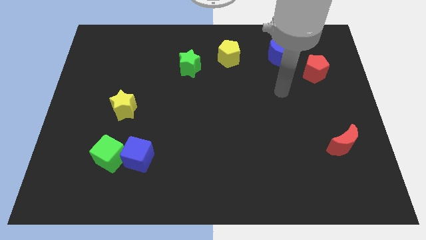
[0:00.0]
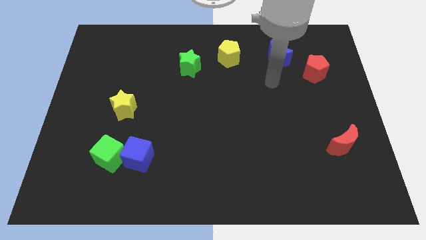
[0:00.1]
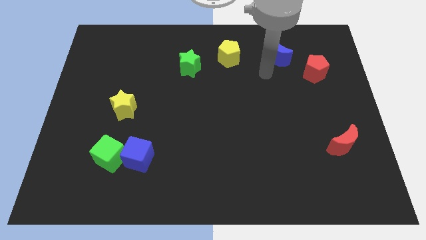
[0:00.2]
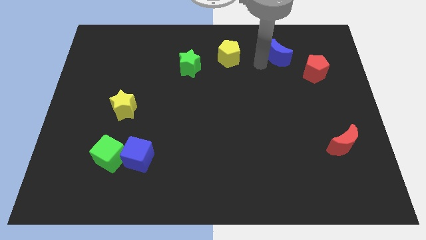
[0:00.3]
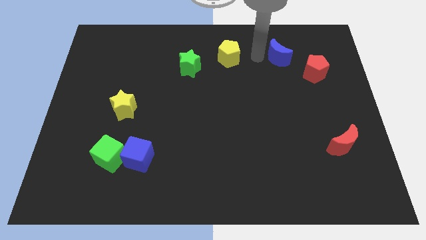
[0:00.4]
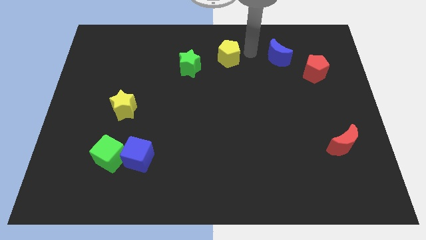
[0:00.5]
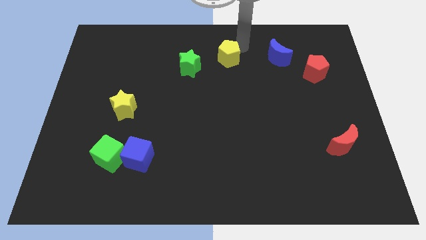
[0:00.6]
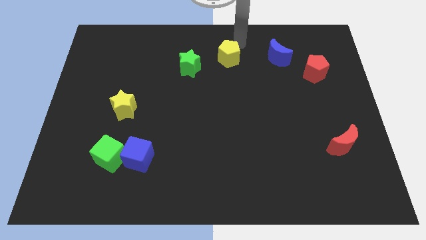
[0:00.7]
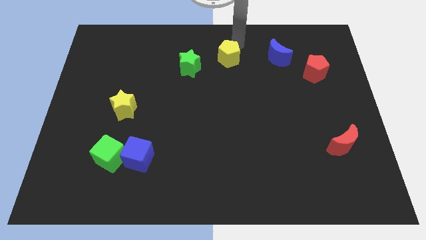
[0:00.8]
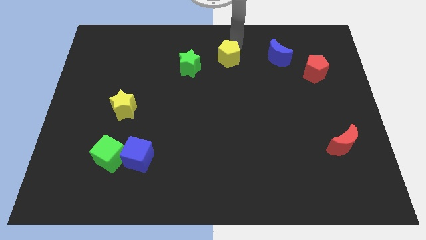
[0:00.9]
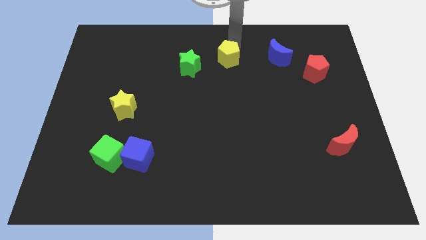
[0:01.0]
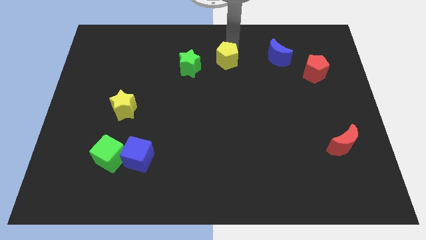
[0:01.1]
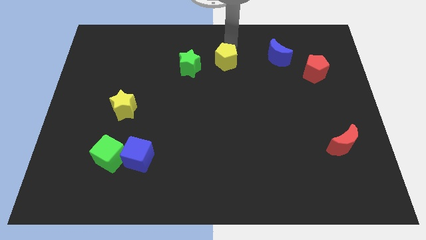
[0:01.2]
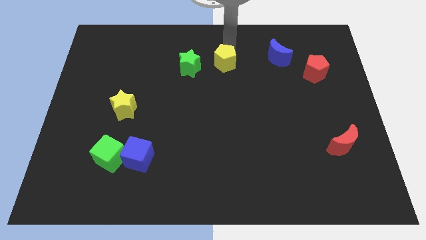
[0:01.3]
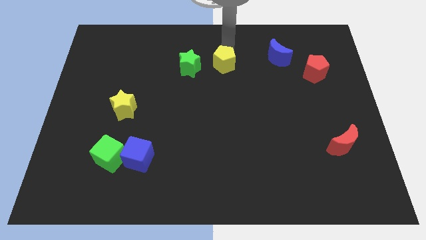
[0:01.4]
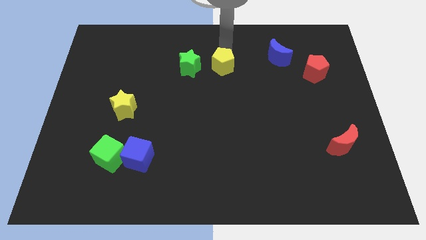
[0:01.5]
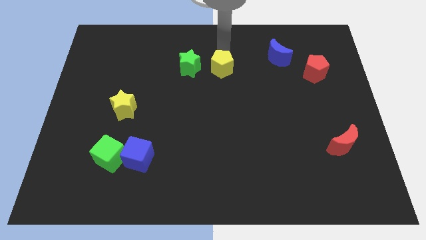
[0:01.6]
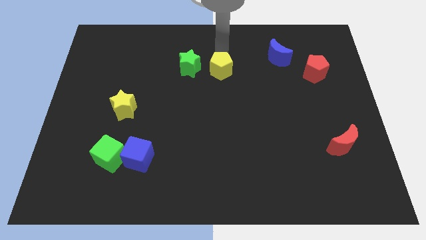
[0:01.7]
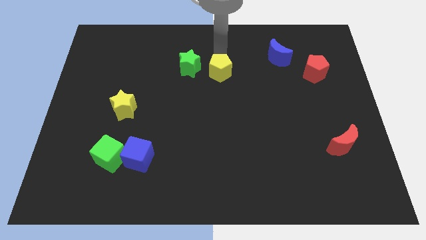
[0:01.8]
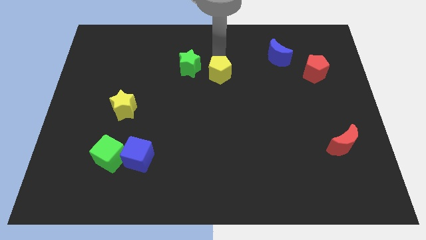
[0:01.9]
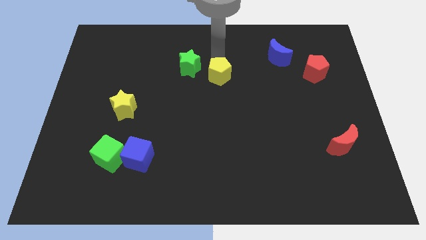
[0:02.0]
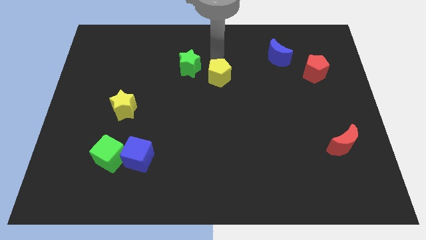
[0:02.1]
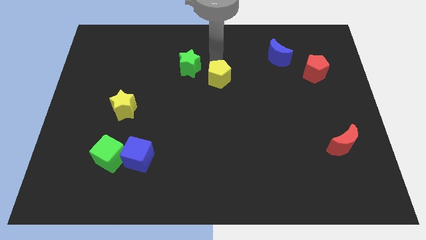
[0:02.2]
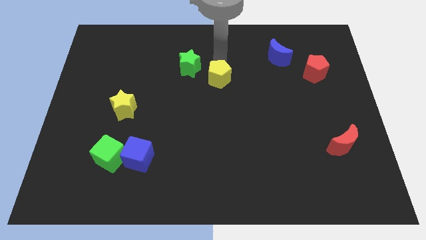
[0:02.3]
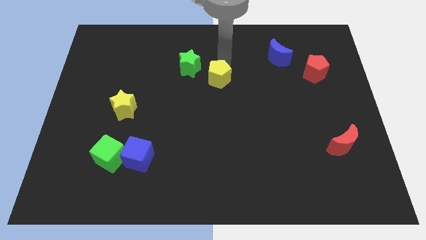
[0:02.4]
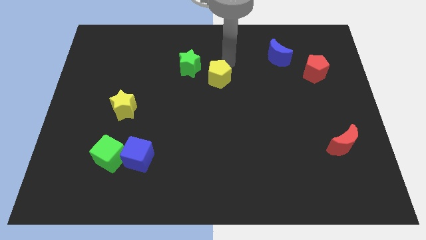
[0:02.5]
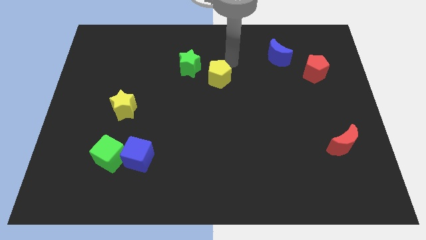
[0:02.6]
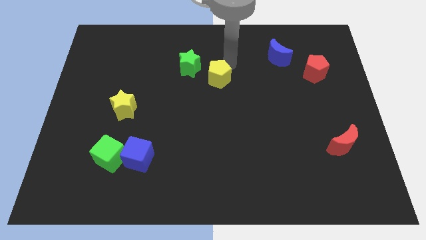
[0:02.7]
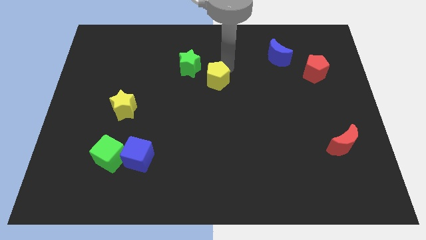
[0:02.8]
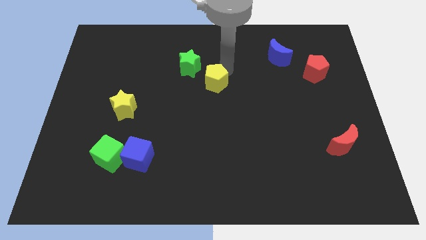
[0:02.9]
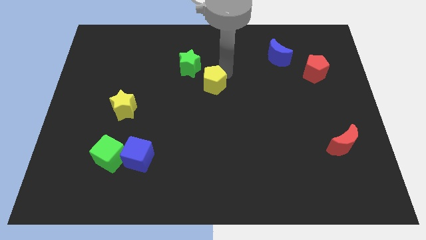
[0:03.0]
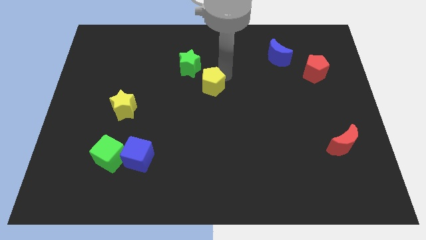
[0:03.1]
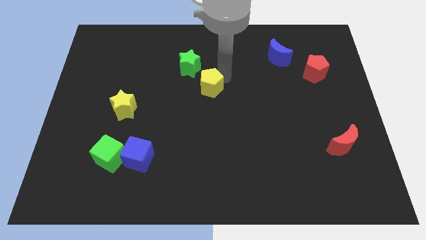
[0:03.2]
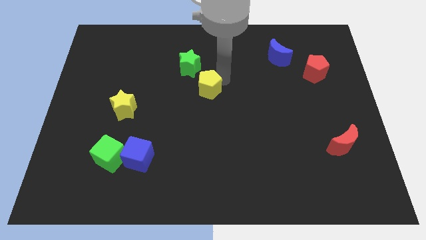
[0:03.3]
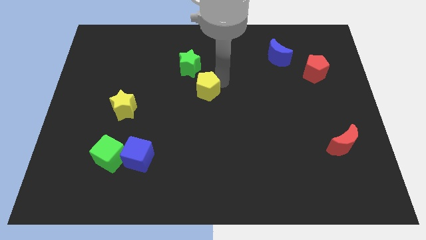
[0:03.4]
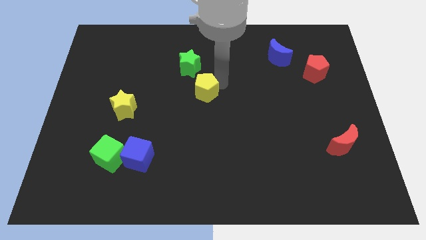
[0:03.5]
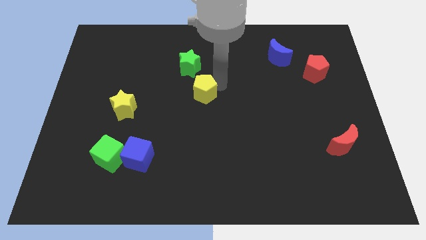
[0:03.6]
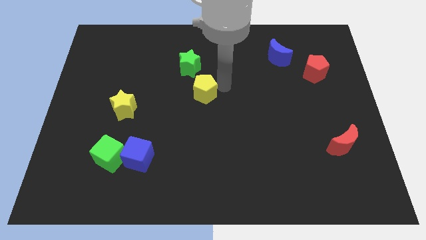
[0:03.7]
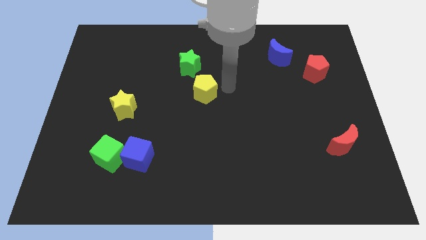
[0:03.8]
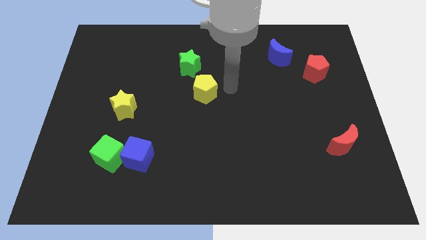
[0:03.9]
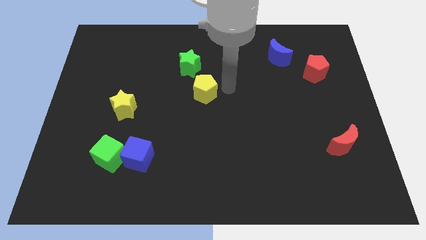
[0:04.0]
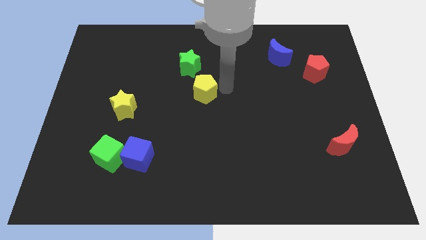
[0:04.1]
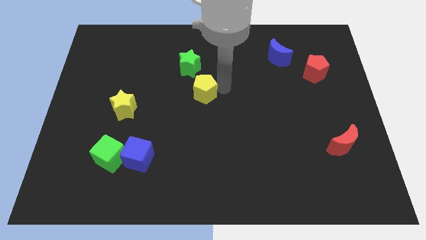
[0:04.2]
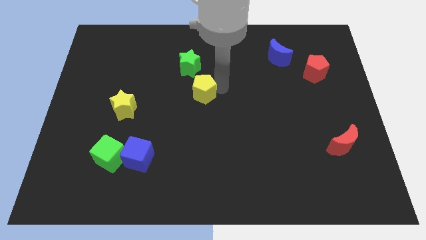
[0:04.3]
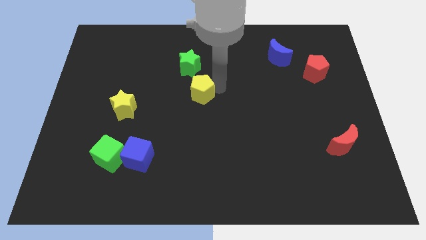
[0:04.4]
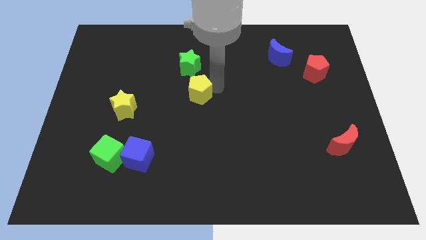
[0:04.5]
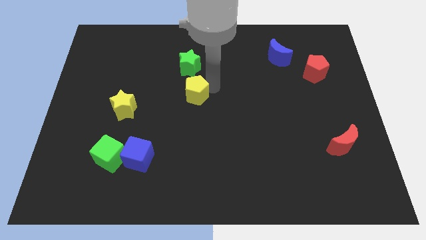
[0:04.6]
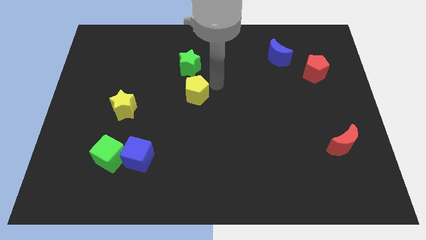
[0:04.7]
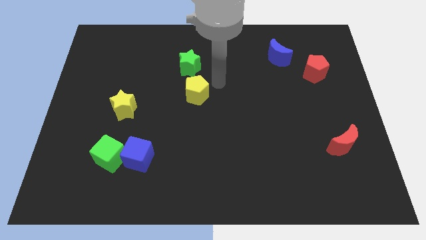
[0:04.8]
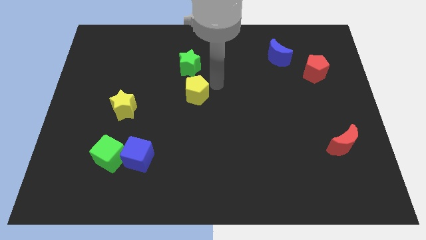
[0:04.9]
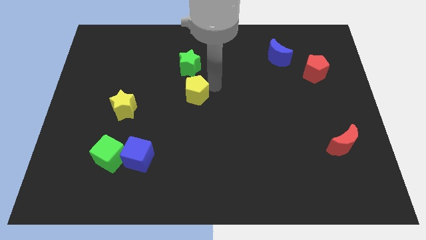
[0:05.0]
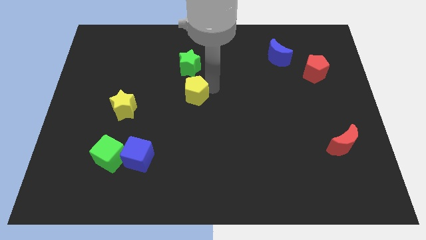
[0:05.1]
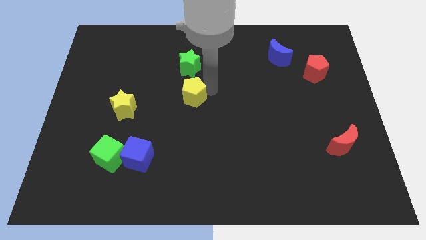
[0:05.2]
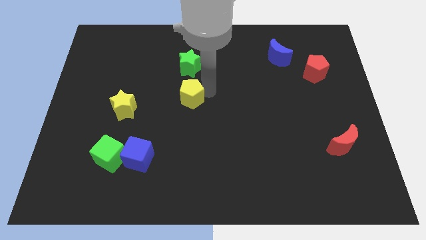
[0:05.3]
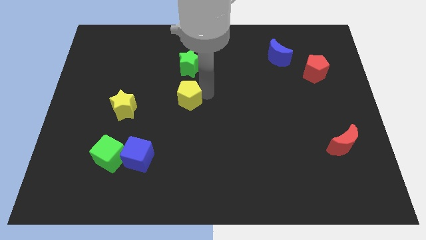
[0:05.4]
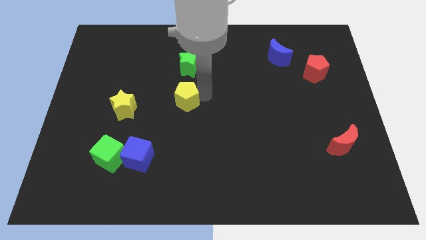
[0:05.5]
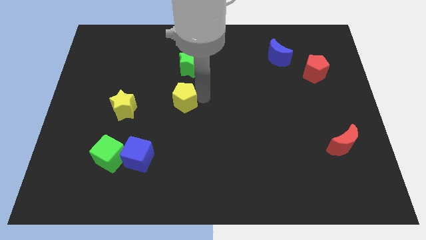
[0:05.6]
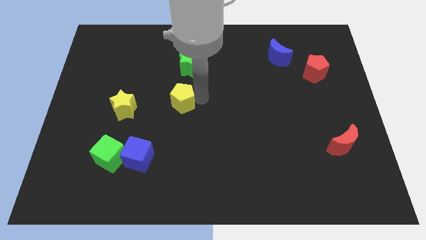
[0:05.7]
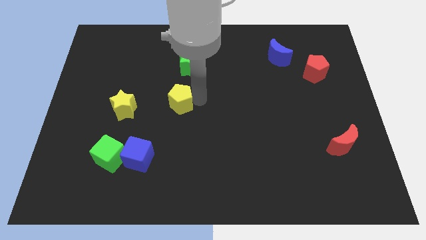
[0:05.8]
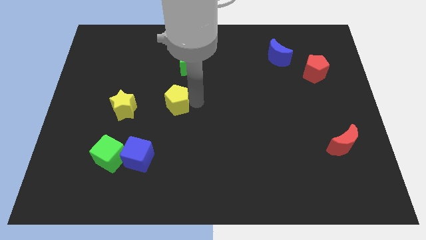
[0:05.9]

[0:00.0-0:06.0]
push the yellow pentagon diagonally down and left

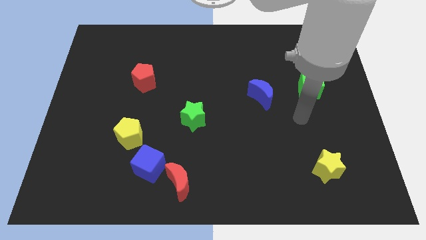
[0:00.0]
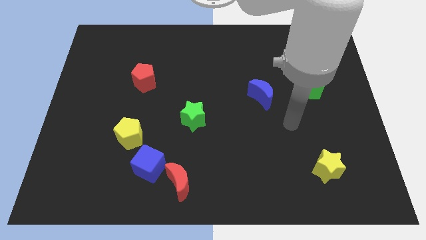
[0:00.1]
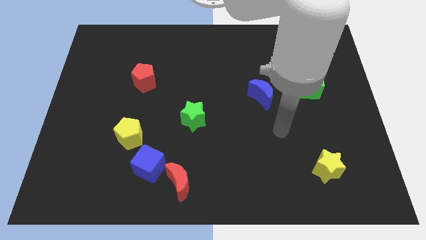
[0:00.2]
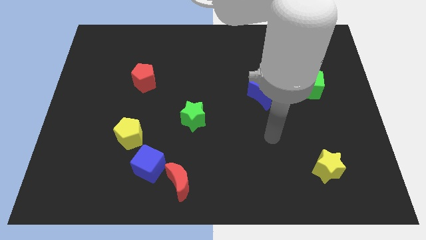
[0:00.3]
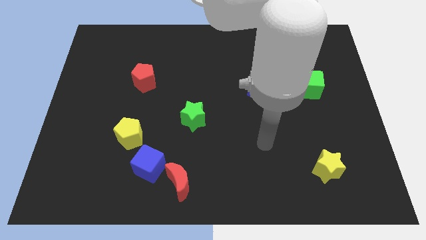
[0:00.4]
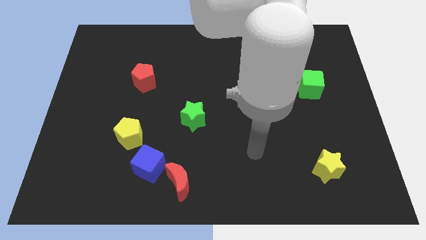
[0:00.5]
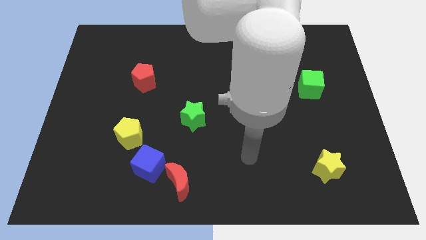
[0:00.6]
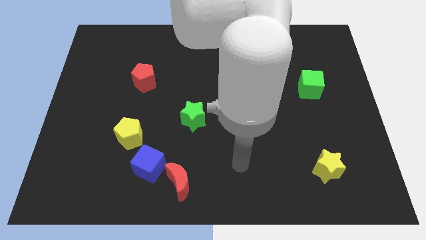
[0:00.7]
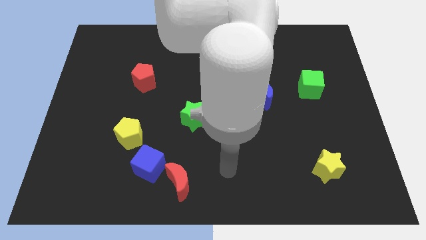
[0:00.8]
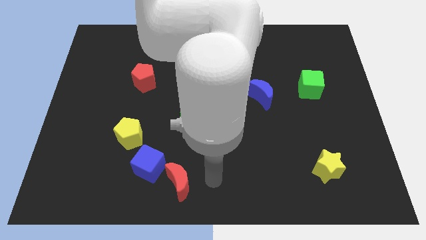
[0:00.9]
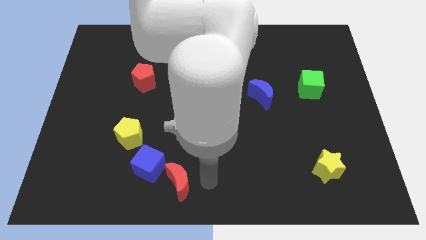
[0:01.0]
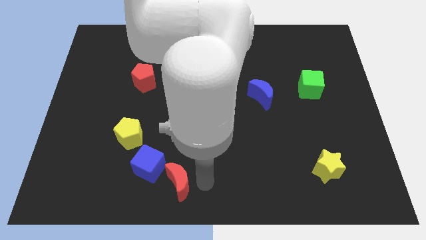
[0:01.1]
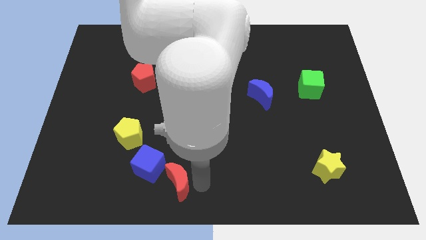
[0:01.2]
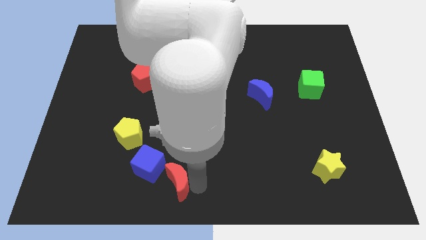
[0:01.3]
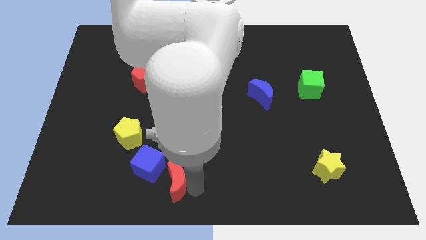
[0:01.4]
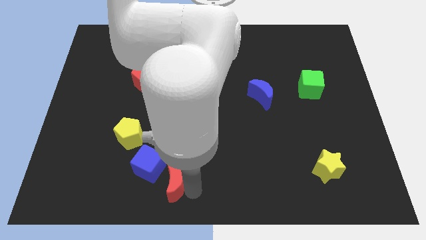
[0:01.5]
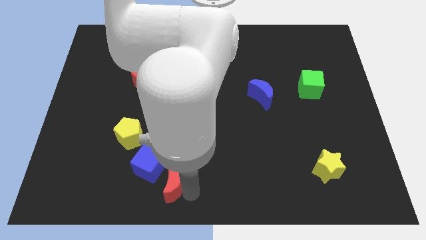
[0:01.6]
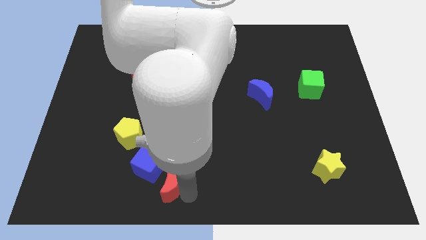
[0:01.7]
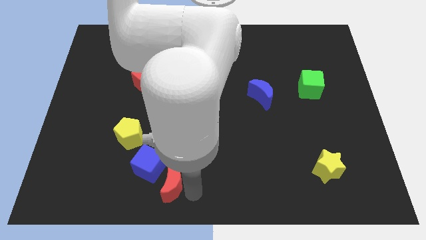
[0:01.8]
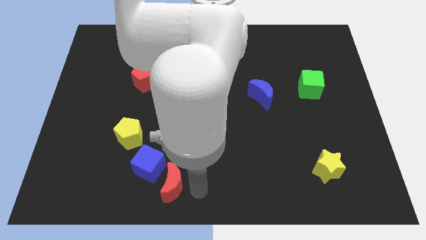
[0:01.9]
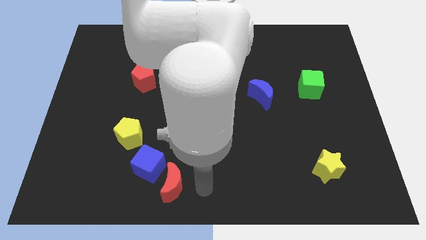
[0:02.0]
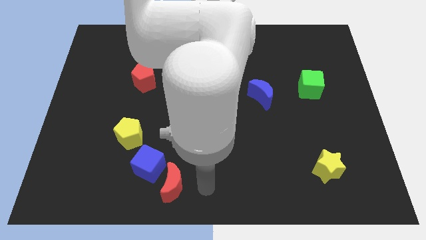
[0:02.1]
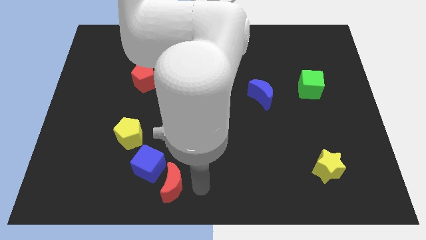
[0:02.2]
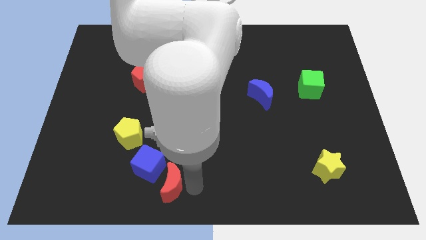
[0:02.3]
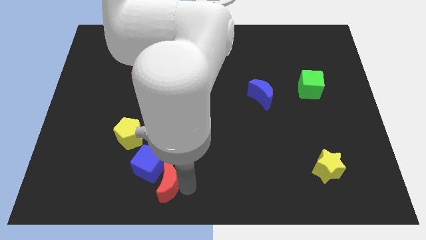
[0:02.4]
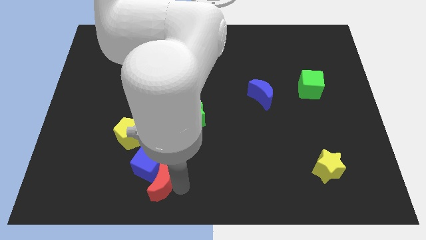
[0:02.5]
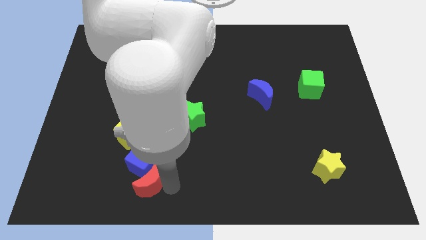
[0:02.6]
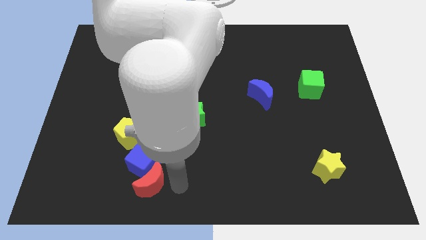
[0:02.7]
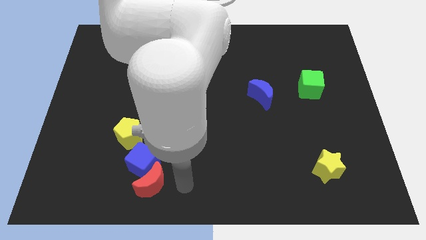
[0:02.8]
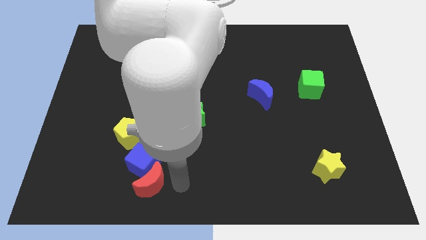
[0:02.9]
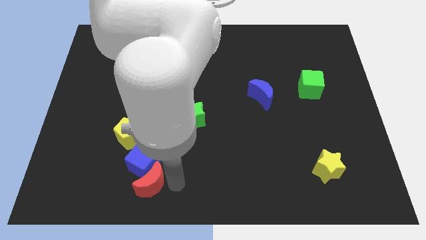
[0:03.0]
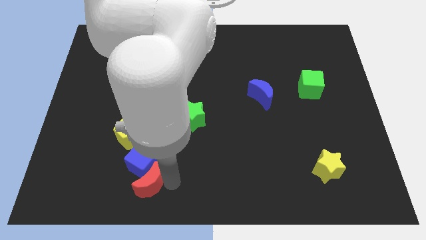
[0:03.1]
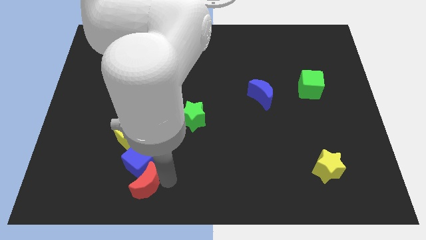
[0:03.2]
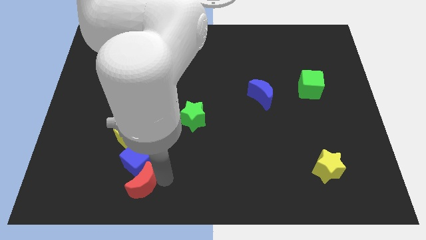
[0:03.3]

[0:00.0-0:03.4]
slightly slide the red moon left
